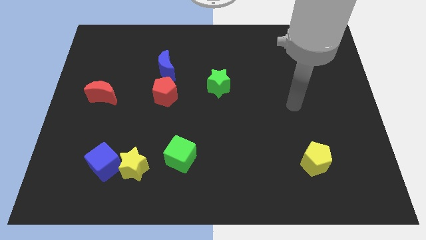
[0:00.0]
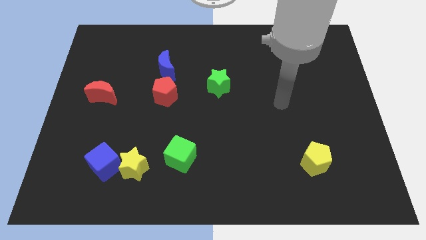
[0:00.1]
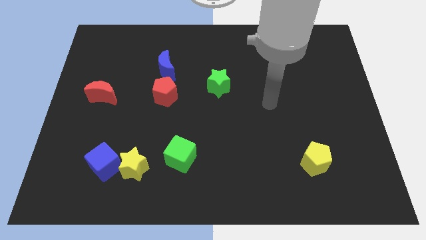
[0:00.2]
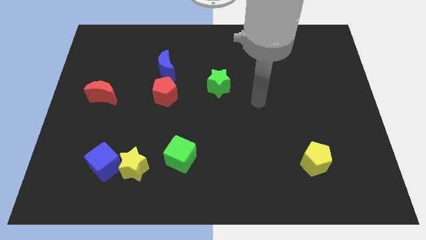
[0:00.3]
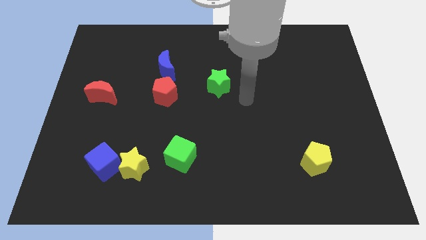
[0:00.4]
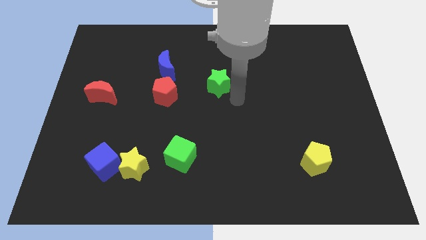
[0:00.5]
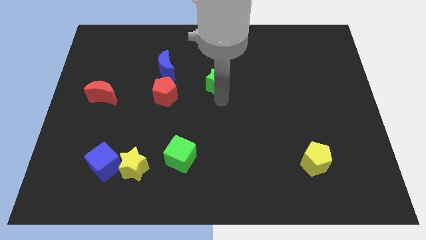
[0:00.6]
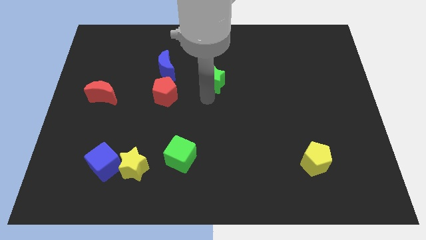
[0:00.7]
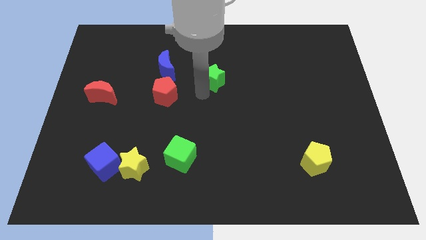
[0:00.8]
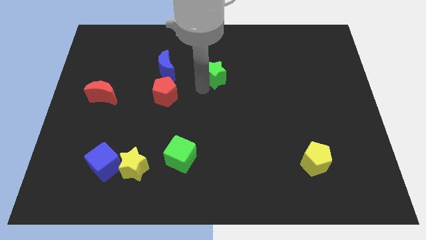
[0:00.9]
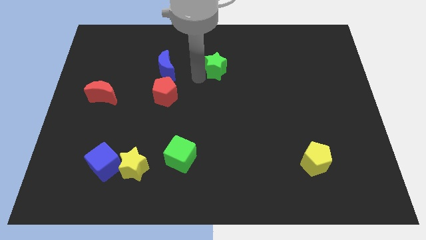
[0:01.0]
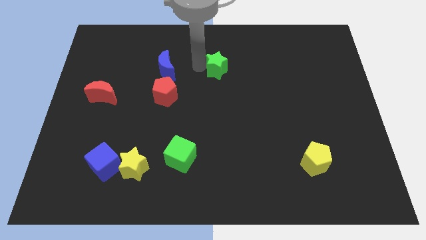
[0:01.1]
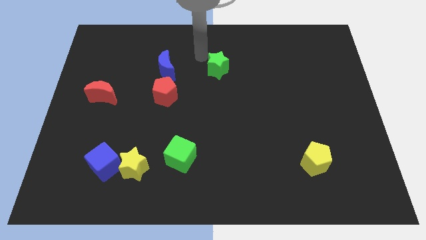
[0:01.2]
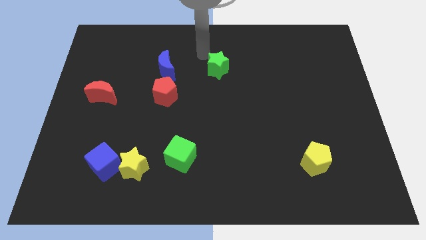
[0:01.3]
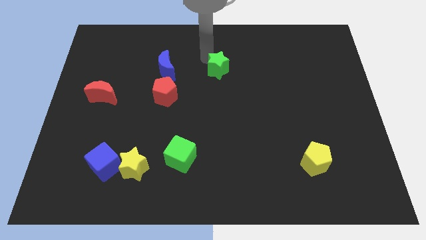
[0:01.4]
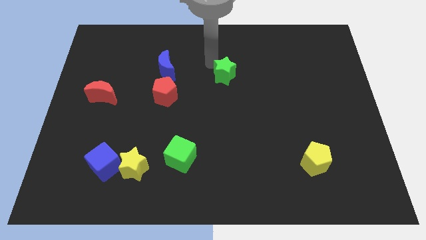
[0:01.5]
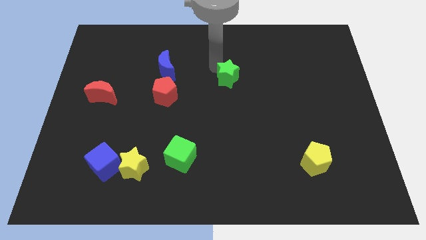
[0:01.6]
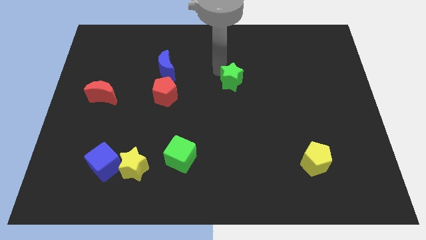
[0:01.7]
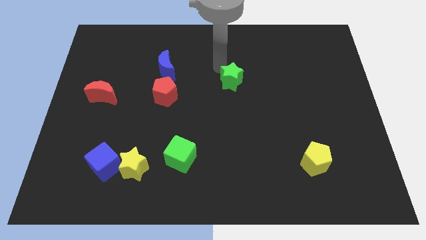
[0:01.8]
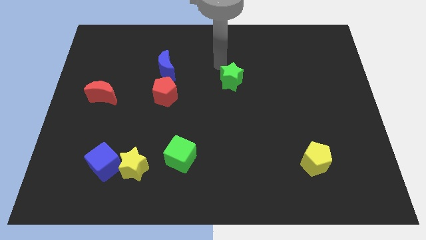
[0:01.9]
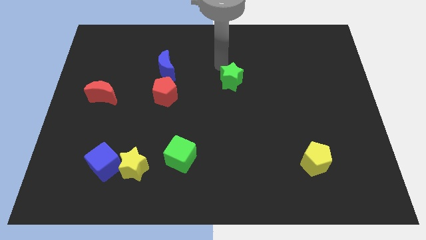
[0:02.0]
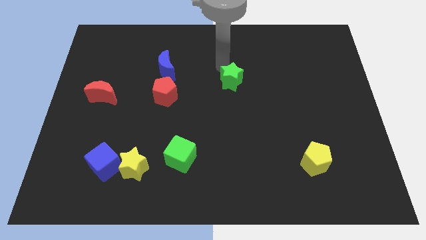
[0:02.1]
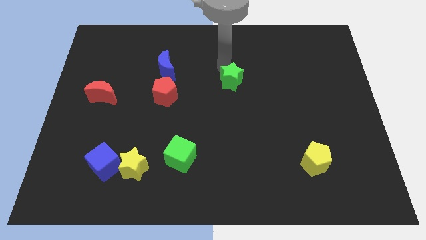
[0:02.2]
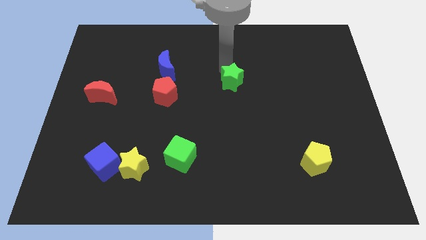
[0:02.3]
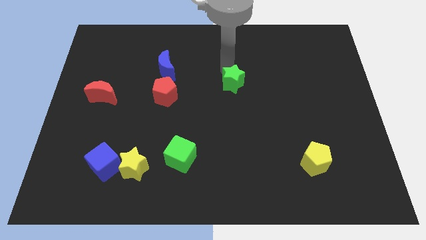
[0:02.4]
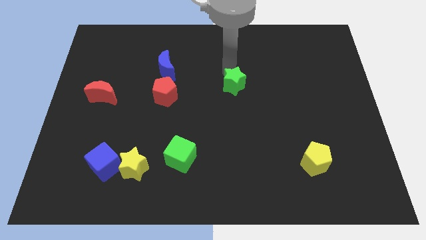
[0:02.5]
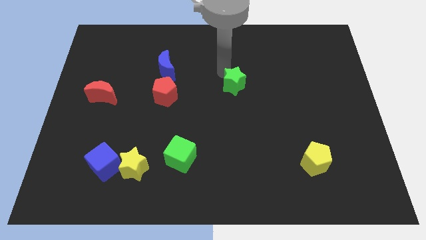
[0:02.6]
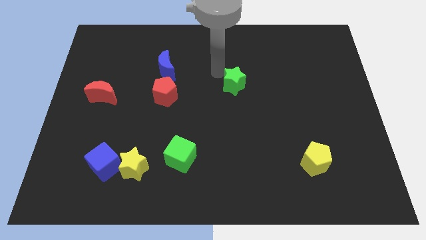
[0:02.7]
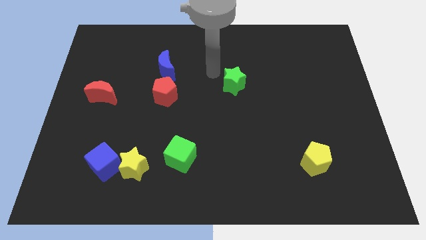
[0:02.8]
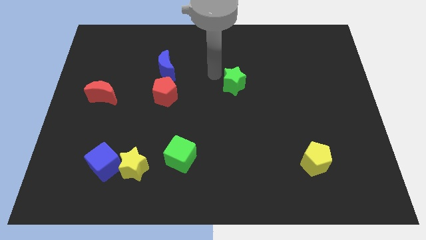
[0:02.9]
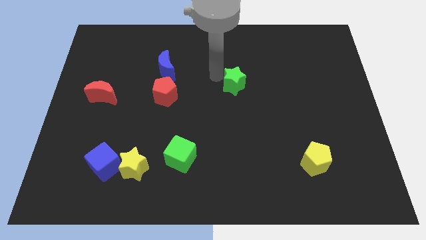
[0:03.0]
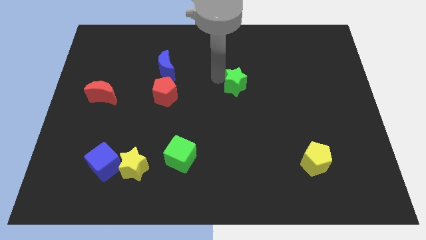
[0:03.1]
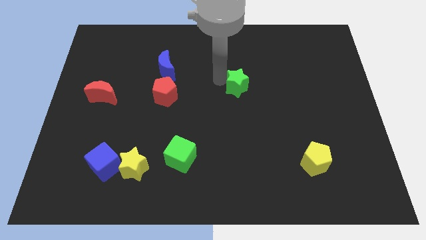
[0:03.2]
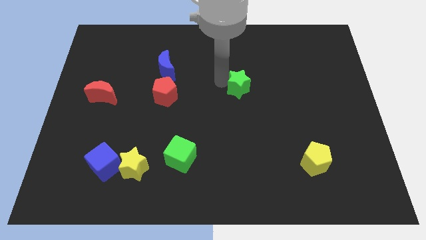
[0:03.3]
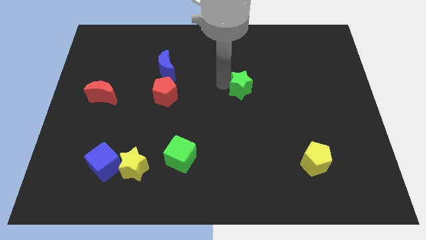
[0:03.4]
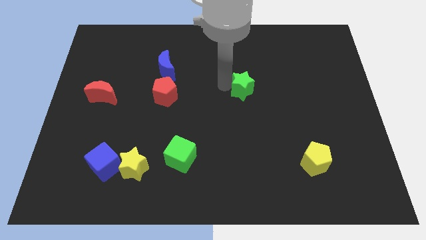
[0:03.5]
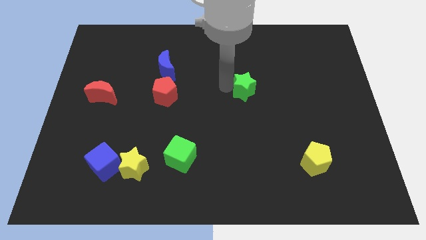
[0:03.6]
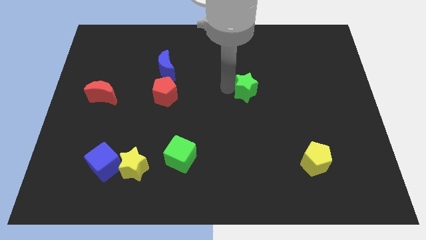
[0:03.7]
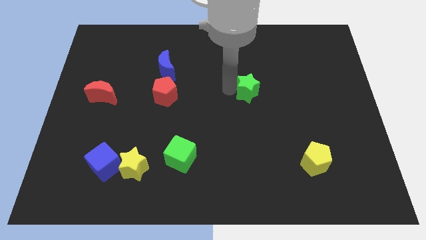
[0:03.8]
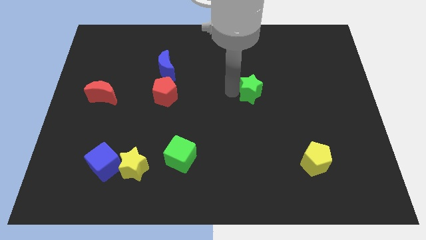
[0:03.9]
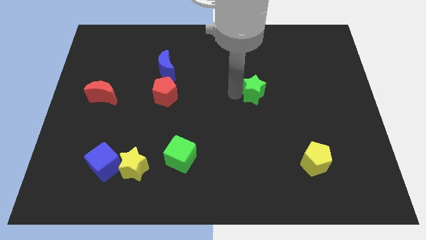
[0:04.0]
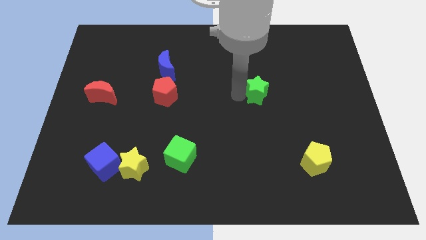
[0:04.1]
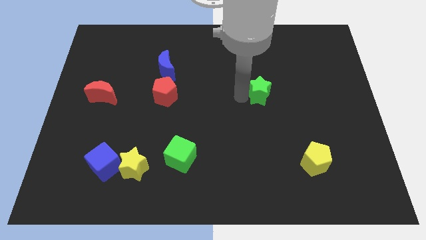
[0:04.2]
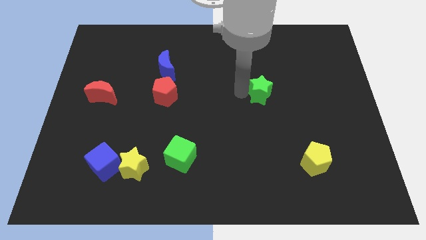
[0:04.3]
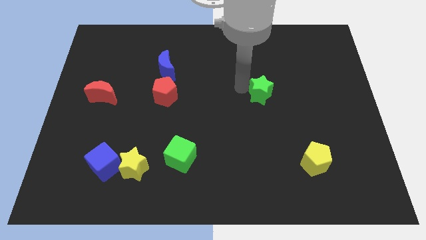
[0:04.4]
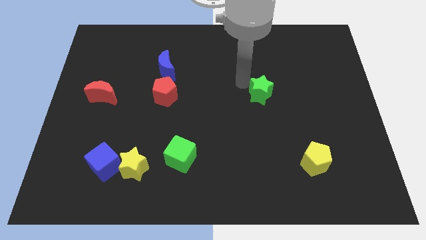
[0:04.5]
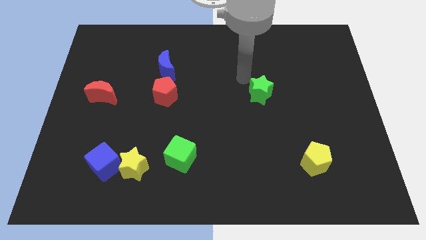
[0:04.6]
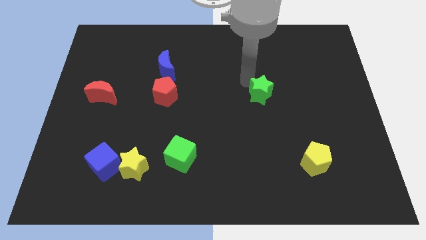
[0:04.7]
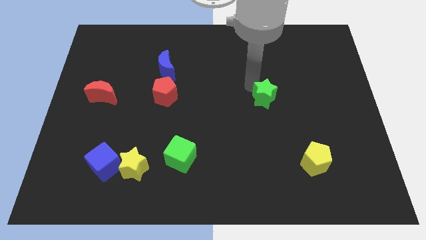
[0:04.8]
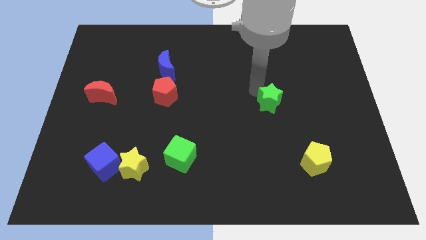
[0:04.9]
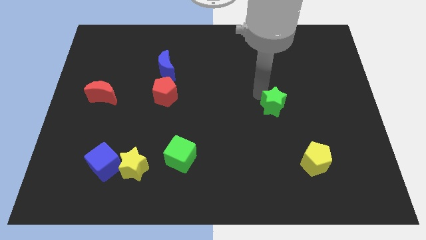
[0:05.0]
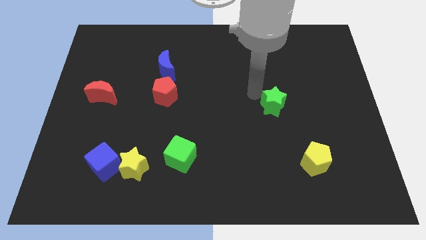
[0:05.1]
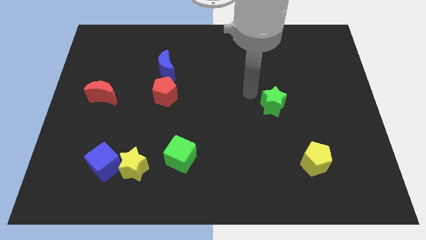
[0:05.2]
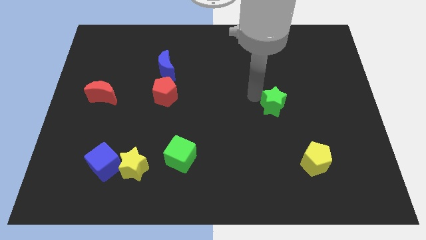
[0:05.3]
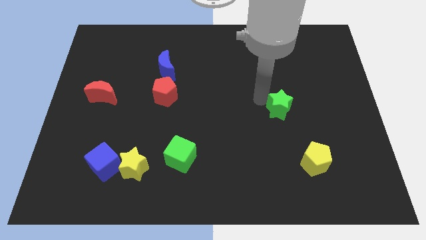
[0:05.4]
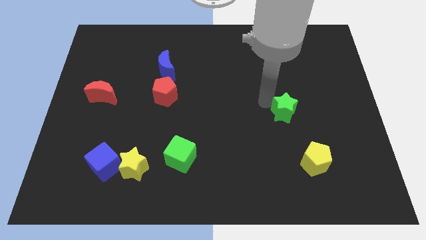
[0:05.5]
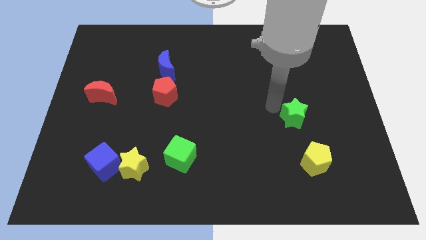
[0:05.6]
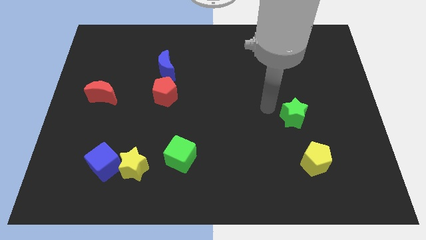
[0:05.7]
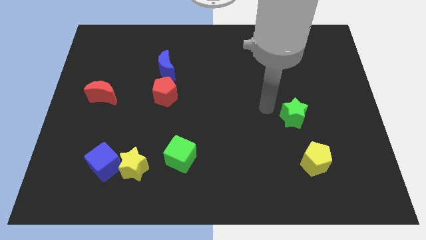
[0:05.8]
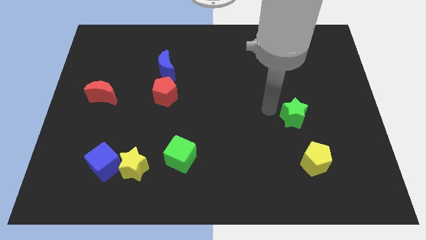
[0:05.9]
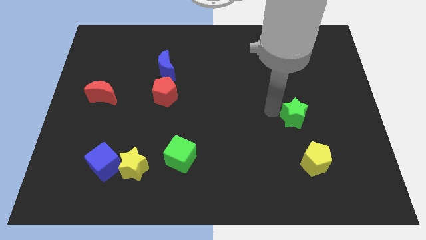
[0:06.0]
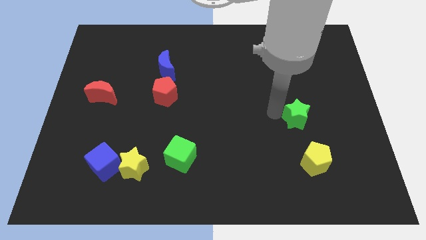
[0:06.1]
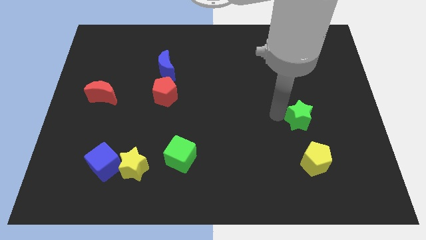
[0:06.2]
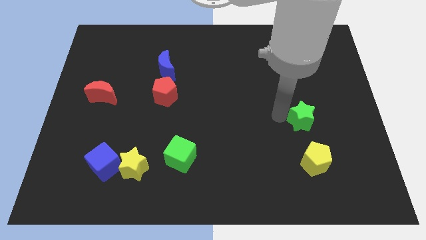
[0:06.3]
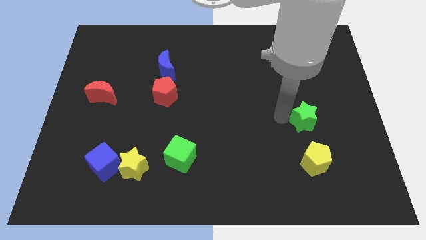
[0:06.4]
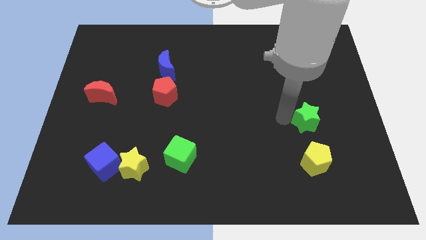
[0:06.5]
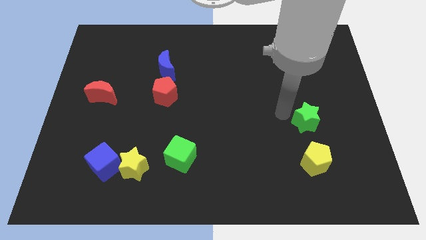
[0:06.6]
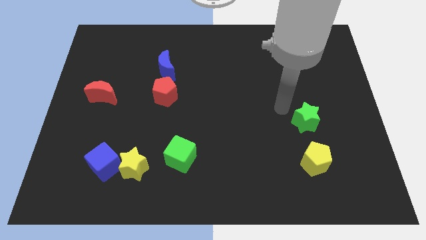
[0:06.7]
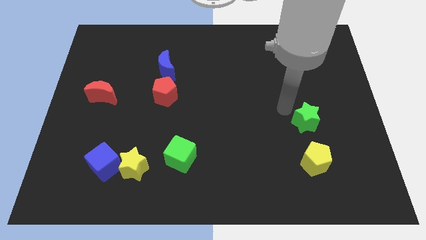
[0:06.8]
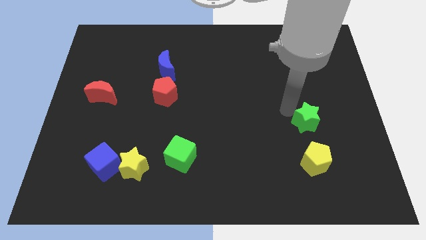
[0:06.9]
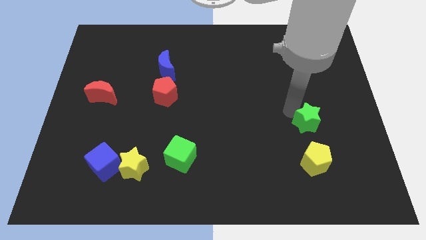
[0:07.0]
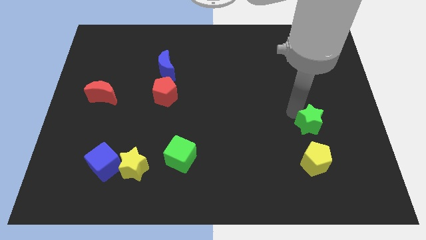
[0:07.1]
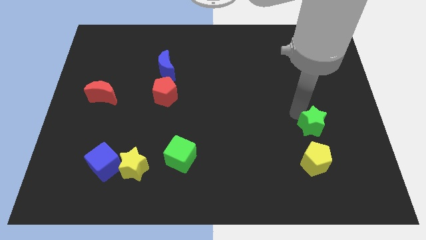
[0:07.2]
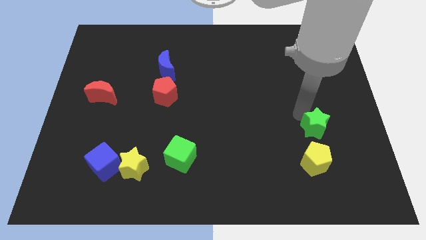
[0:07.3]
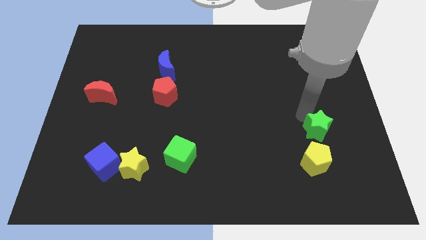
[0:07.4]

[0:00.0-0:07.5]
slide the green star diagonally up and to the right of the yellow pentagon
